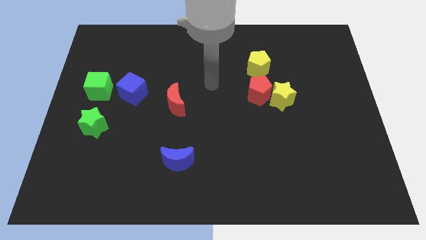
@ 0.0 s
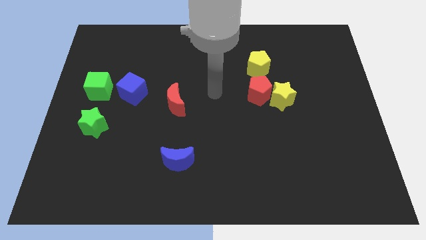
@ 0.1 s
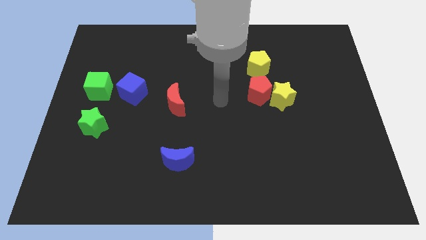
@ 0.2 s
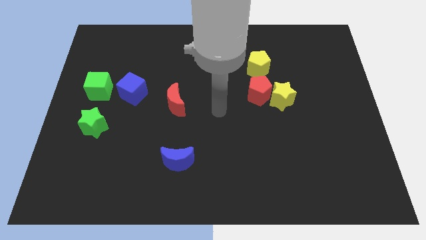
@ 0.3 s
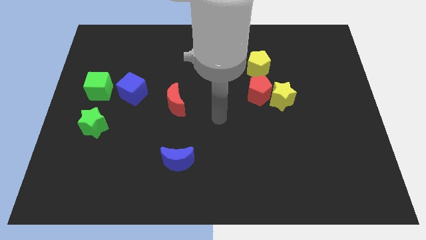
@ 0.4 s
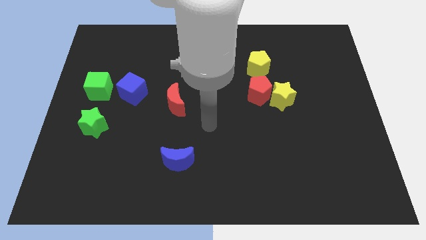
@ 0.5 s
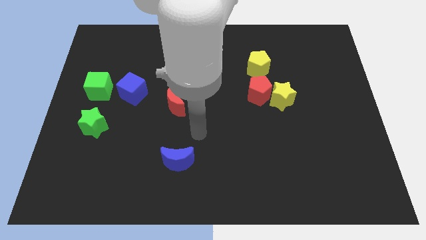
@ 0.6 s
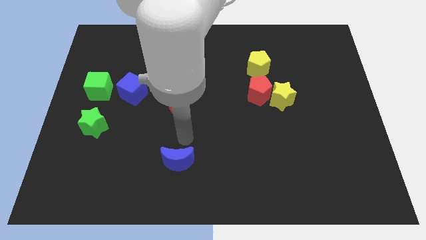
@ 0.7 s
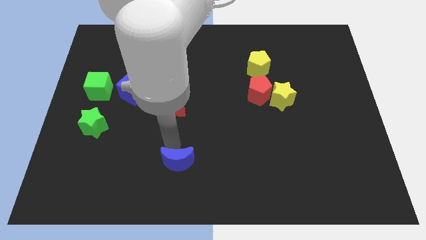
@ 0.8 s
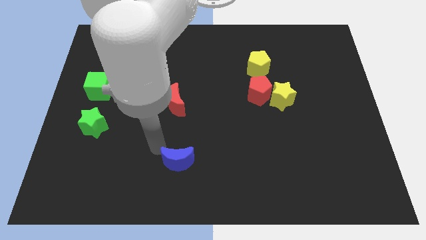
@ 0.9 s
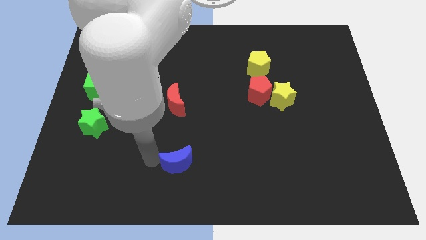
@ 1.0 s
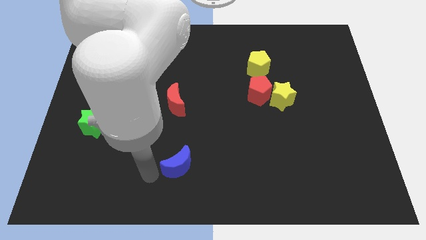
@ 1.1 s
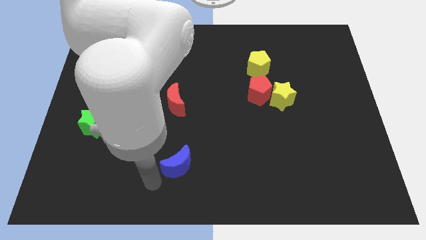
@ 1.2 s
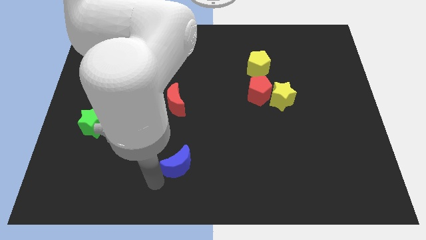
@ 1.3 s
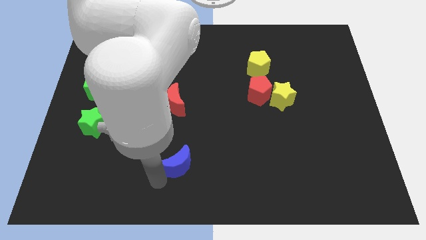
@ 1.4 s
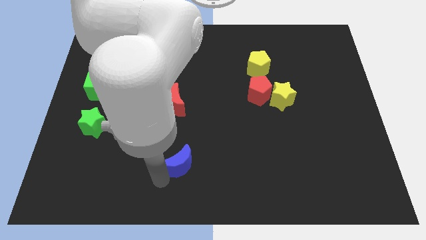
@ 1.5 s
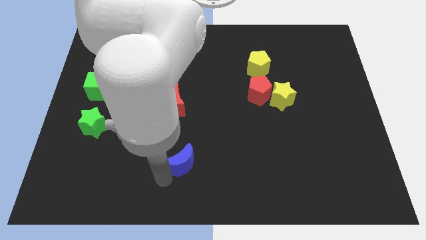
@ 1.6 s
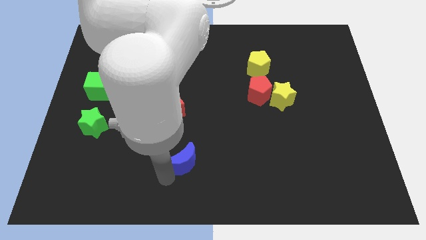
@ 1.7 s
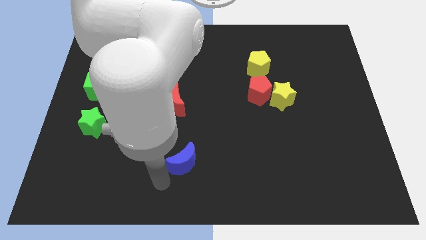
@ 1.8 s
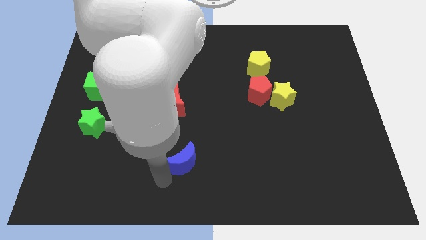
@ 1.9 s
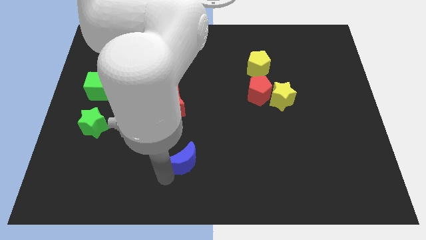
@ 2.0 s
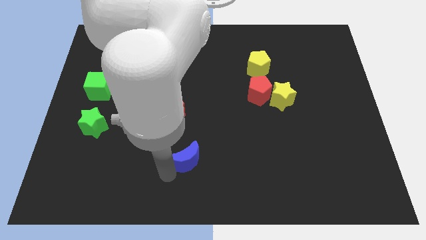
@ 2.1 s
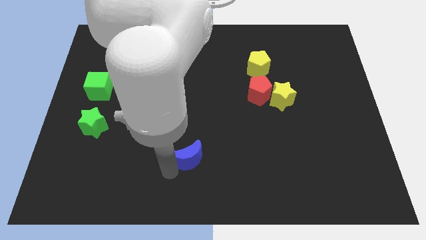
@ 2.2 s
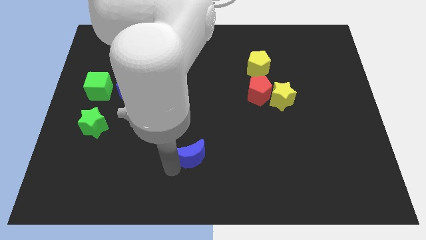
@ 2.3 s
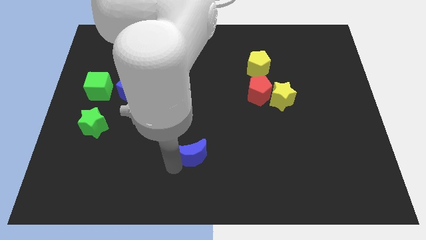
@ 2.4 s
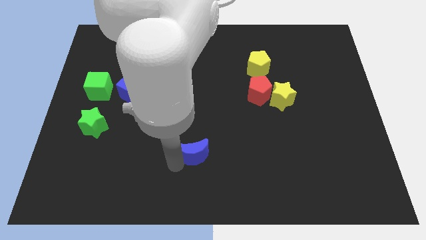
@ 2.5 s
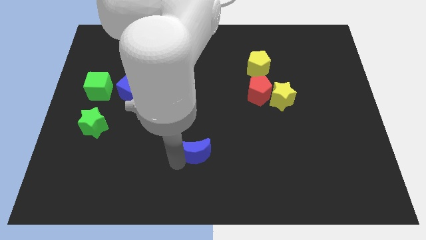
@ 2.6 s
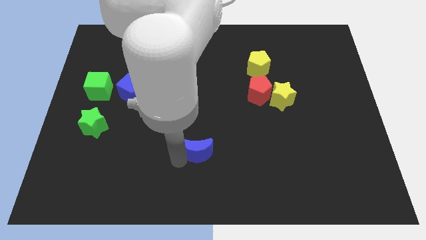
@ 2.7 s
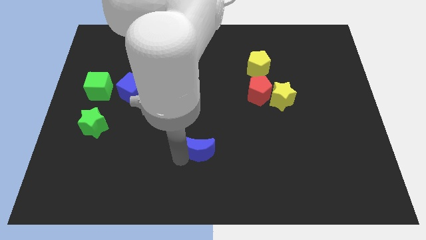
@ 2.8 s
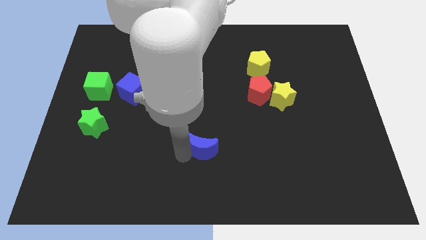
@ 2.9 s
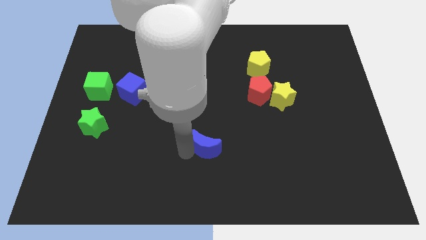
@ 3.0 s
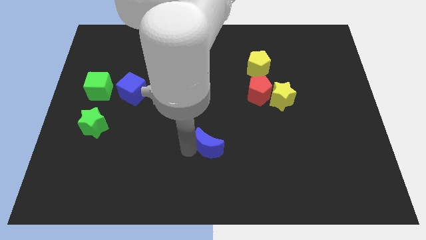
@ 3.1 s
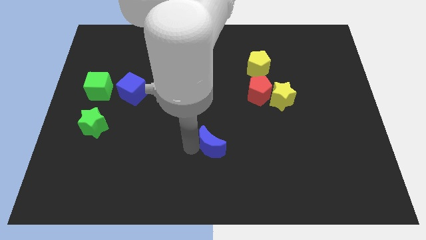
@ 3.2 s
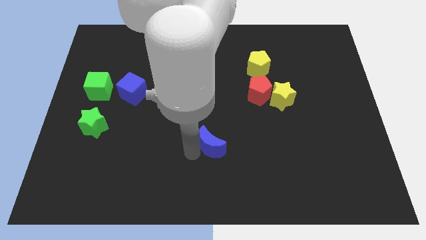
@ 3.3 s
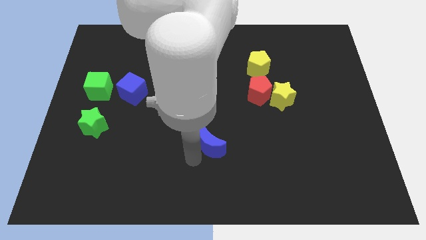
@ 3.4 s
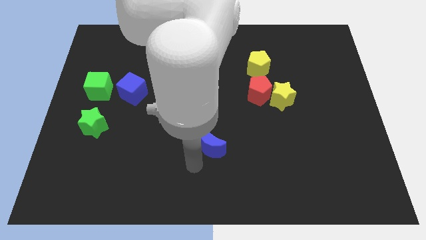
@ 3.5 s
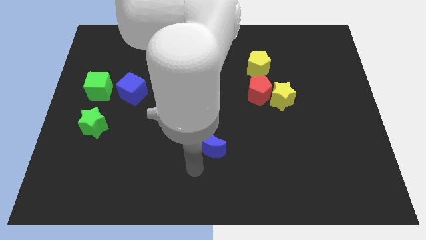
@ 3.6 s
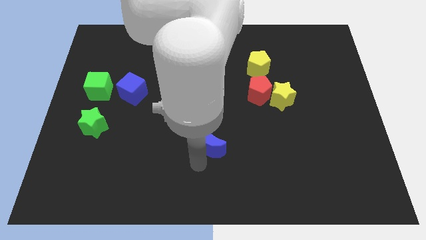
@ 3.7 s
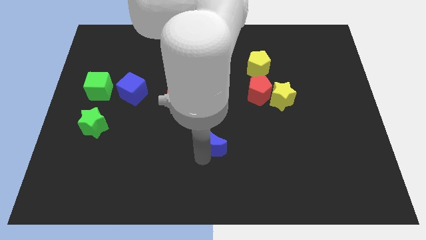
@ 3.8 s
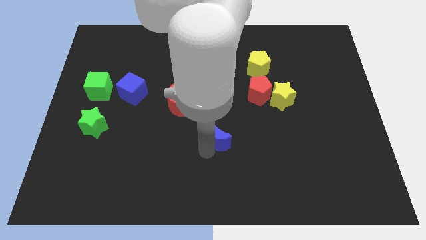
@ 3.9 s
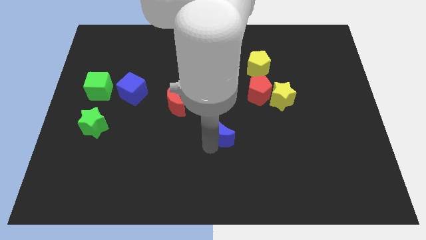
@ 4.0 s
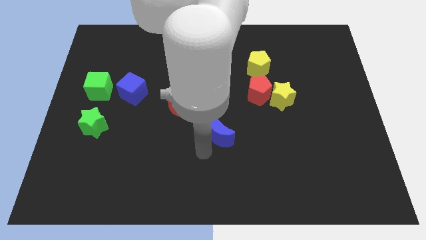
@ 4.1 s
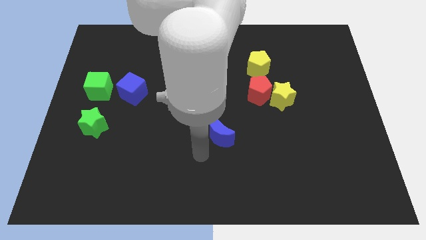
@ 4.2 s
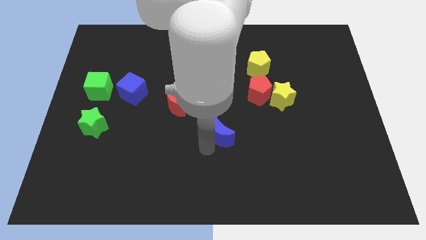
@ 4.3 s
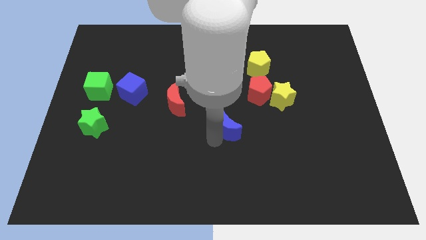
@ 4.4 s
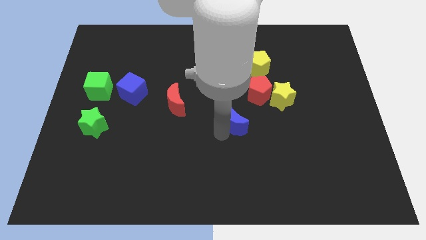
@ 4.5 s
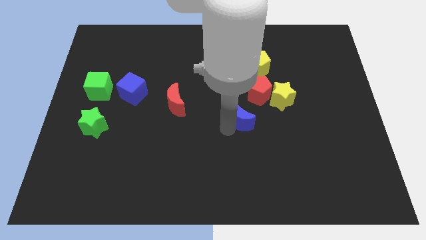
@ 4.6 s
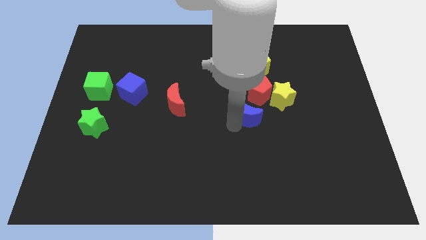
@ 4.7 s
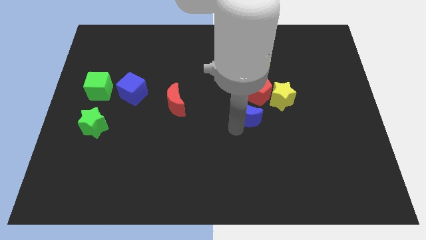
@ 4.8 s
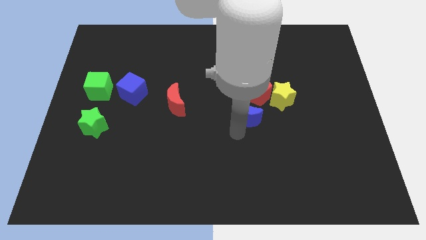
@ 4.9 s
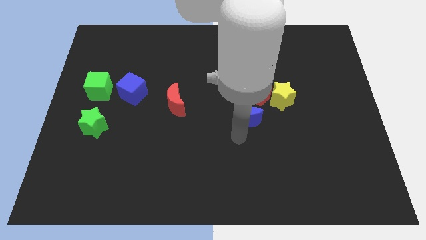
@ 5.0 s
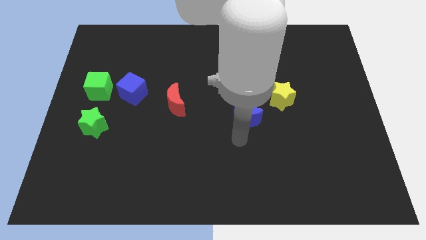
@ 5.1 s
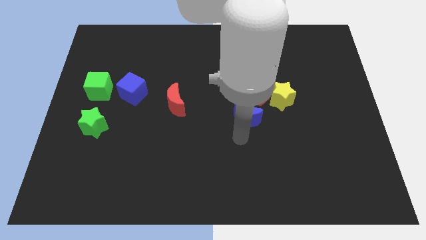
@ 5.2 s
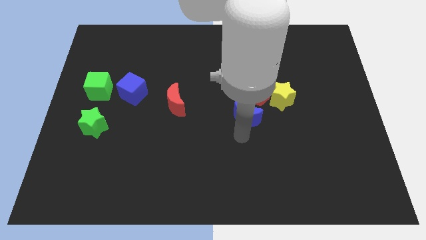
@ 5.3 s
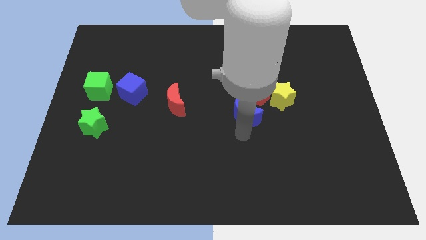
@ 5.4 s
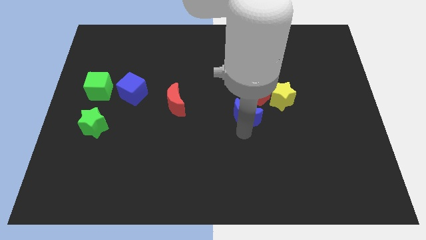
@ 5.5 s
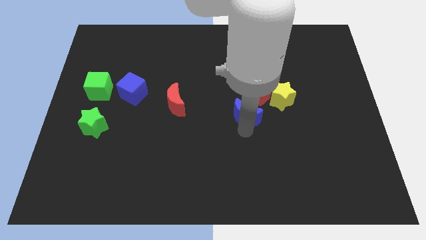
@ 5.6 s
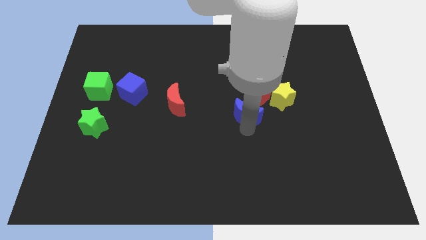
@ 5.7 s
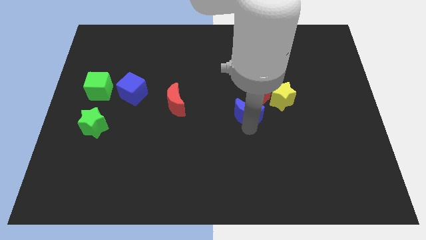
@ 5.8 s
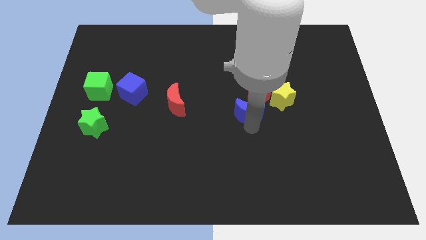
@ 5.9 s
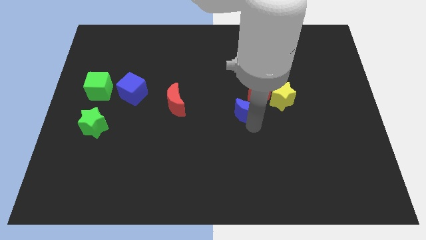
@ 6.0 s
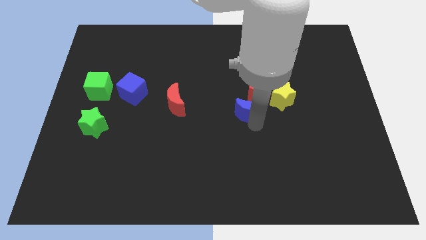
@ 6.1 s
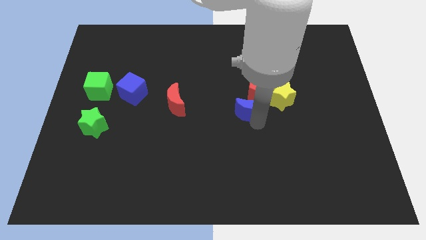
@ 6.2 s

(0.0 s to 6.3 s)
move the blue moon towards the red pentagon

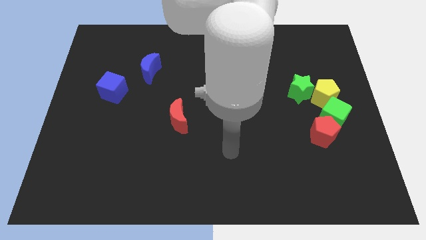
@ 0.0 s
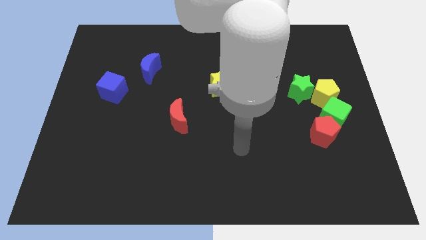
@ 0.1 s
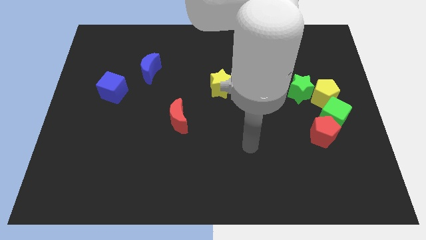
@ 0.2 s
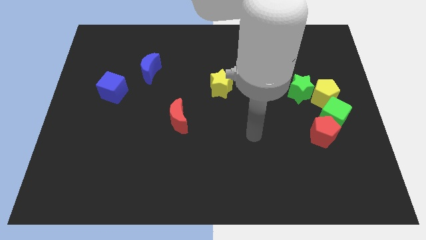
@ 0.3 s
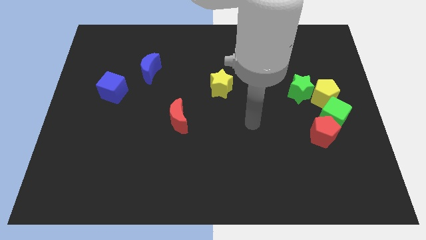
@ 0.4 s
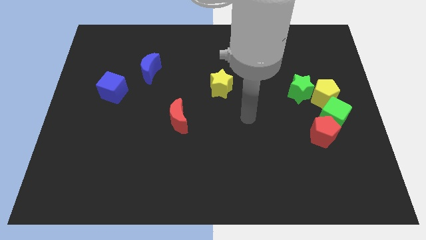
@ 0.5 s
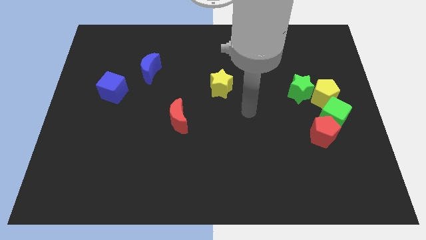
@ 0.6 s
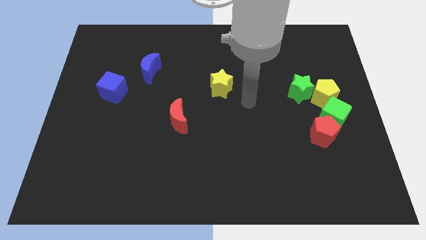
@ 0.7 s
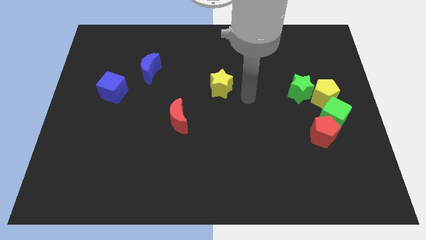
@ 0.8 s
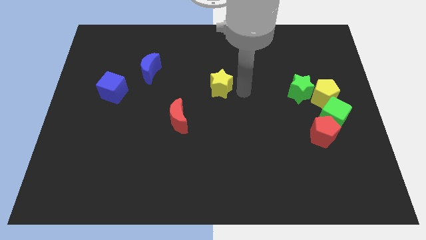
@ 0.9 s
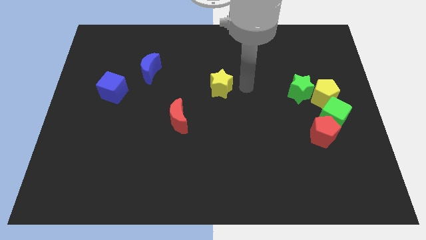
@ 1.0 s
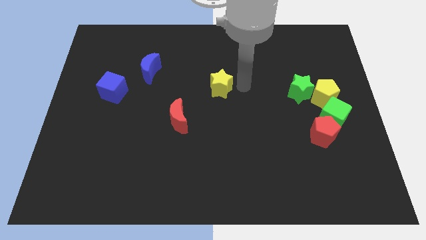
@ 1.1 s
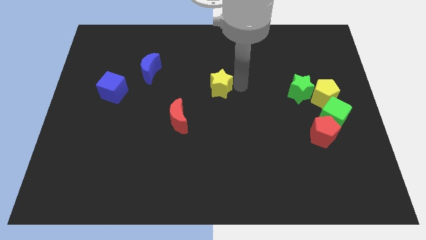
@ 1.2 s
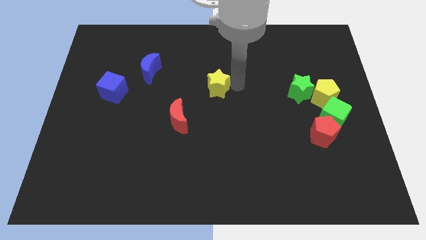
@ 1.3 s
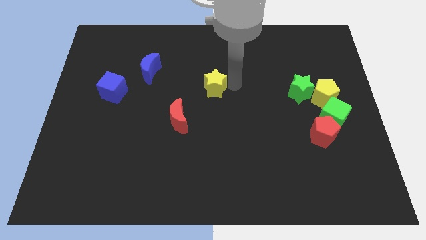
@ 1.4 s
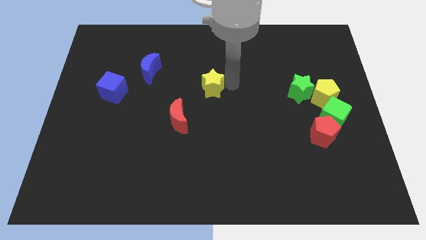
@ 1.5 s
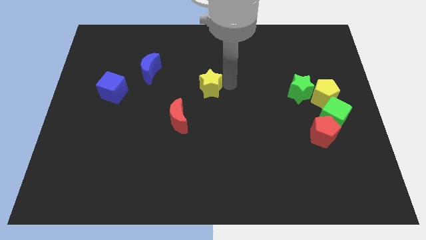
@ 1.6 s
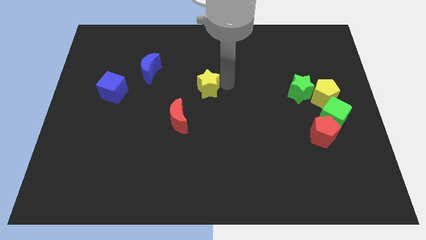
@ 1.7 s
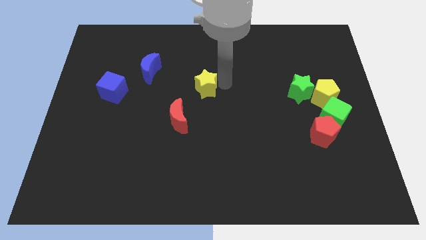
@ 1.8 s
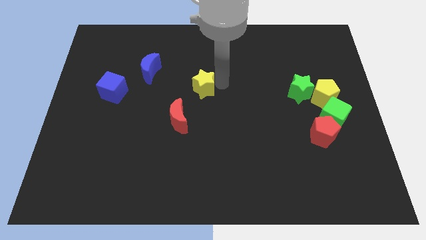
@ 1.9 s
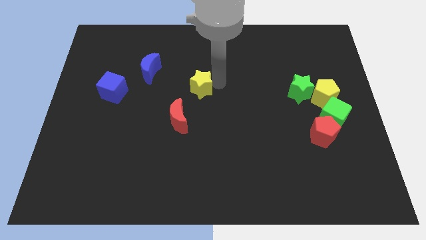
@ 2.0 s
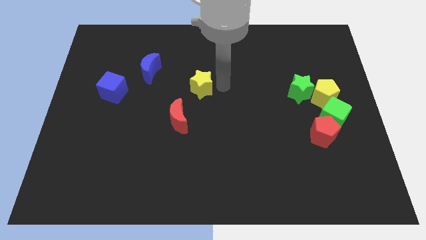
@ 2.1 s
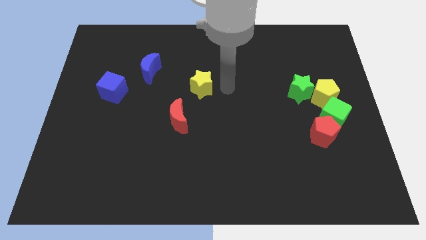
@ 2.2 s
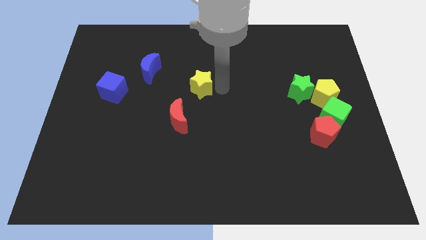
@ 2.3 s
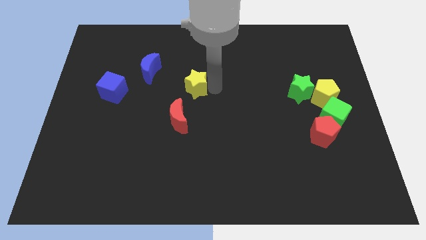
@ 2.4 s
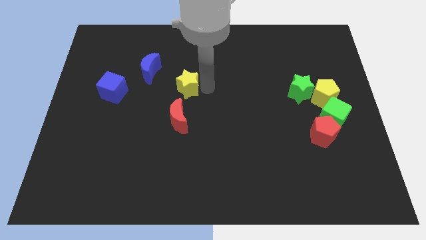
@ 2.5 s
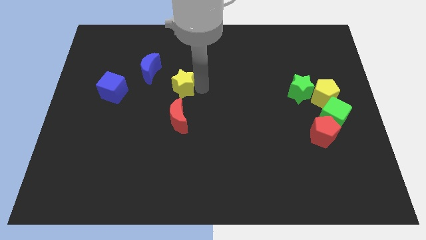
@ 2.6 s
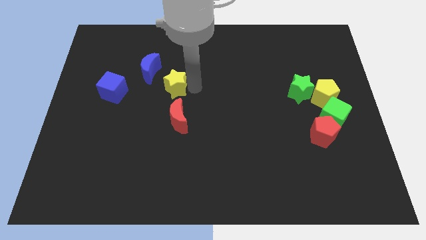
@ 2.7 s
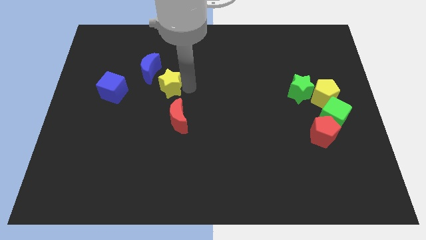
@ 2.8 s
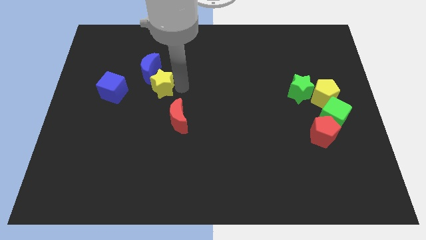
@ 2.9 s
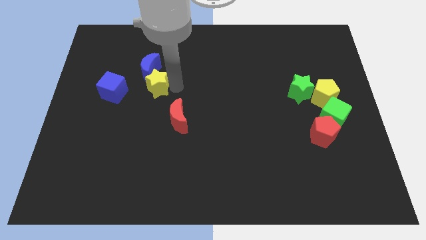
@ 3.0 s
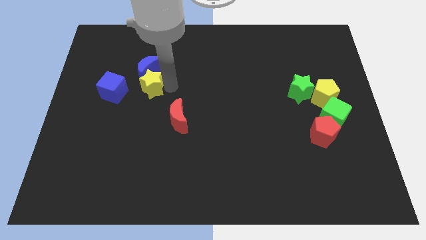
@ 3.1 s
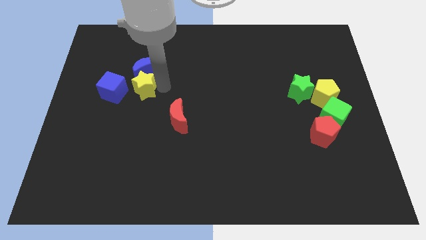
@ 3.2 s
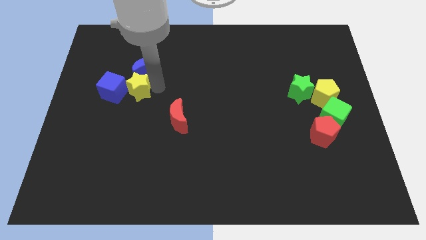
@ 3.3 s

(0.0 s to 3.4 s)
move the yellow star towards the blue cube
